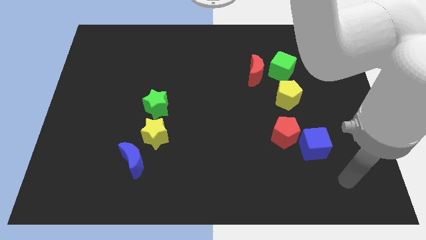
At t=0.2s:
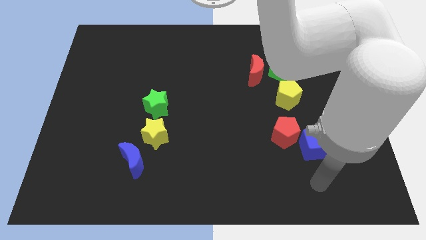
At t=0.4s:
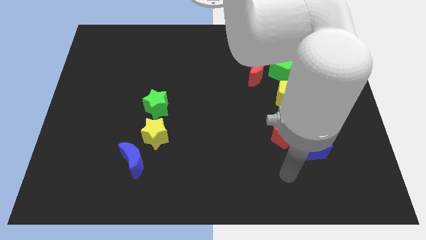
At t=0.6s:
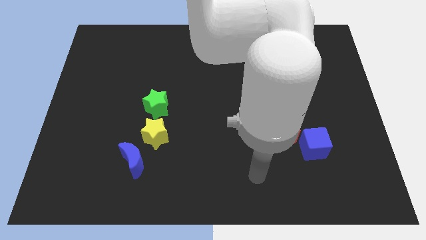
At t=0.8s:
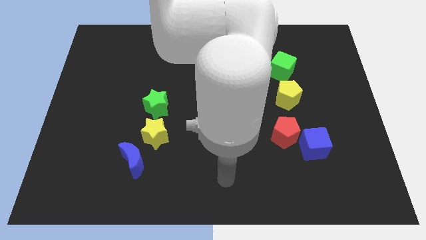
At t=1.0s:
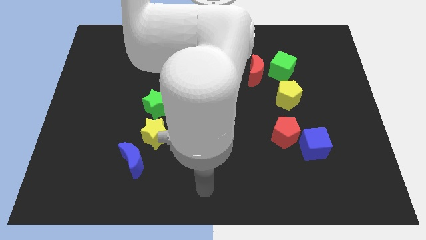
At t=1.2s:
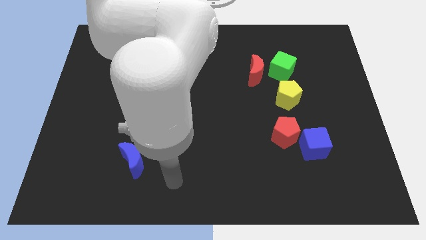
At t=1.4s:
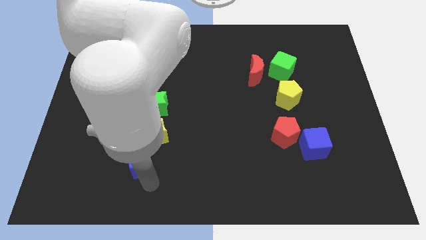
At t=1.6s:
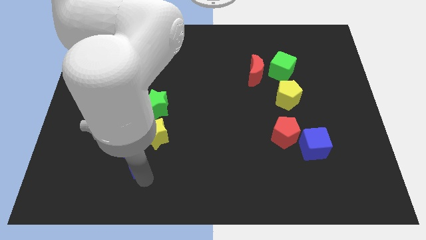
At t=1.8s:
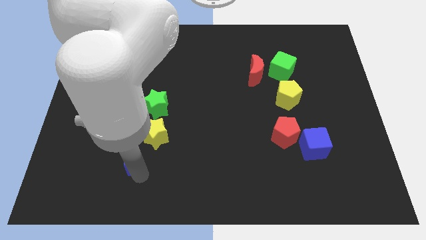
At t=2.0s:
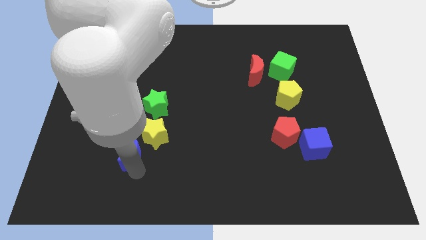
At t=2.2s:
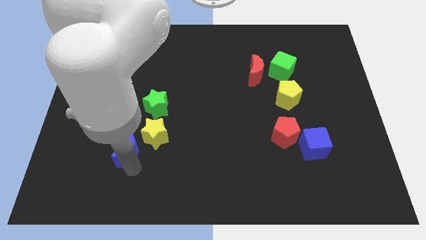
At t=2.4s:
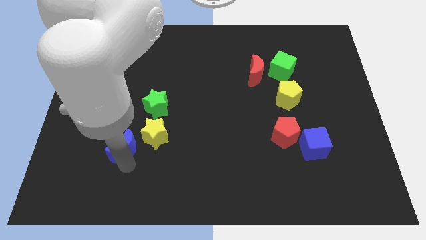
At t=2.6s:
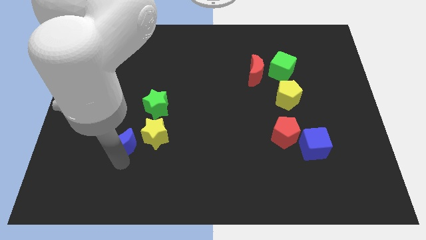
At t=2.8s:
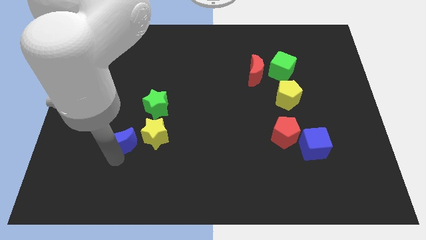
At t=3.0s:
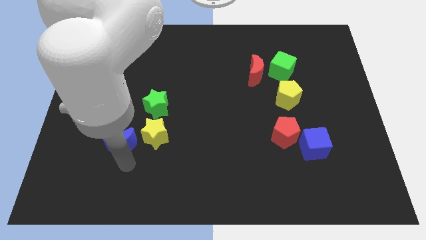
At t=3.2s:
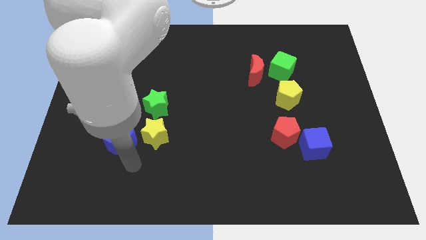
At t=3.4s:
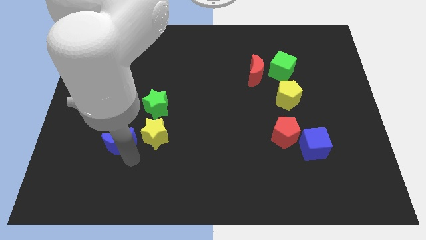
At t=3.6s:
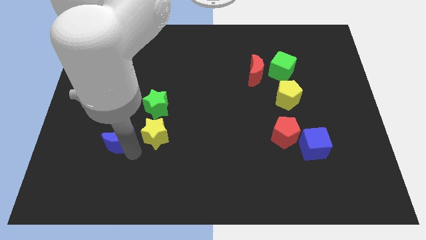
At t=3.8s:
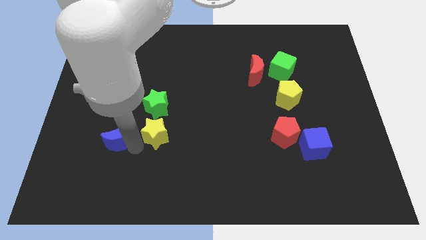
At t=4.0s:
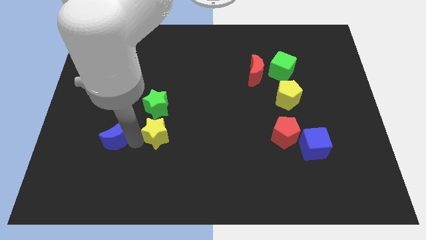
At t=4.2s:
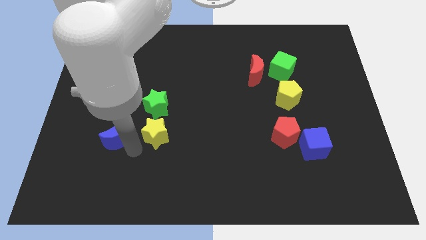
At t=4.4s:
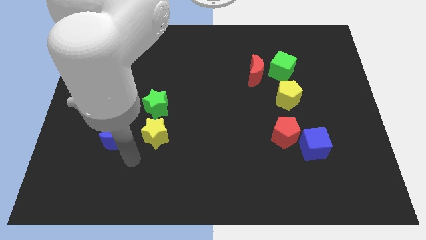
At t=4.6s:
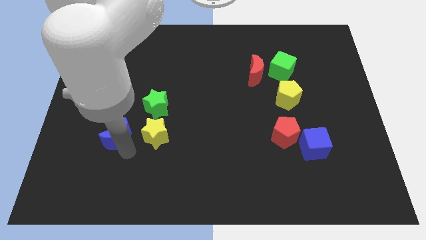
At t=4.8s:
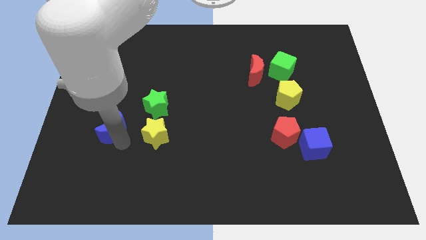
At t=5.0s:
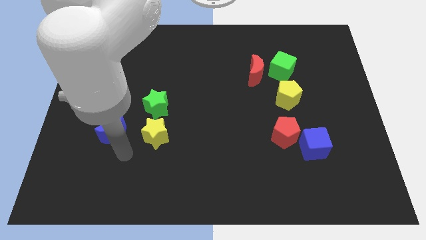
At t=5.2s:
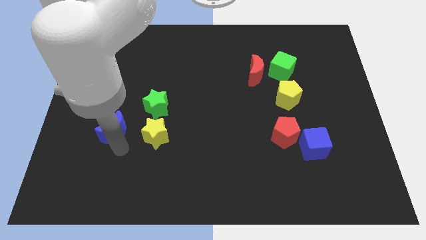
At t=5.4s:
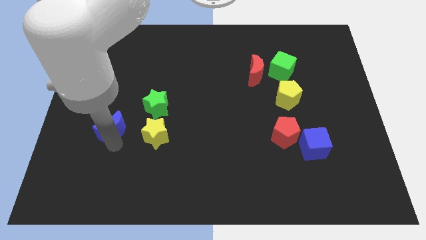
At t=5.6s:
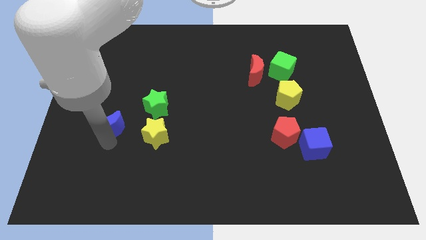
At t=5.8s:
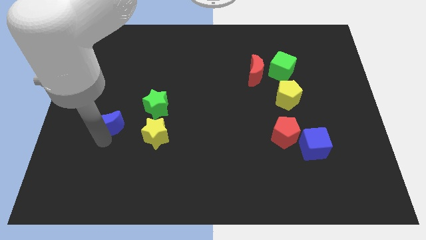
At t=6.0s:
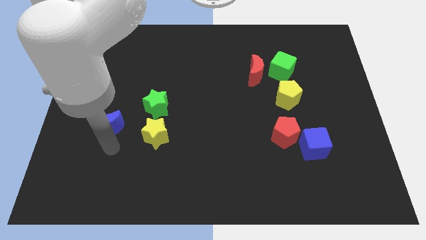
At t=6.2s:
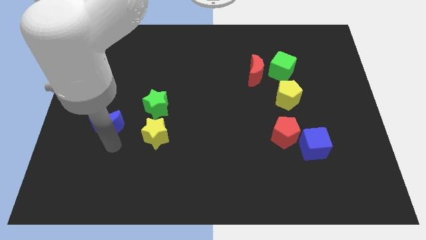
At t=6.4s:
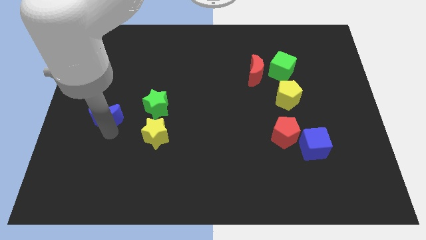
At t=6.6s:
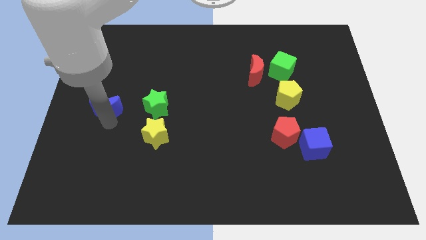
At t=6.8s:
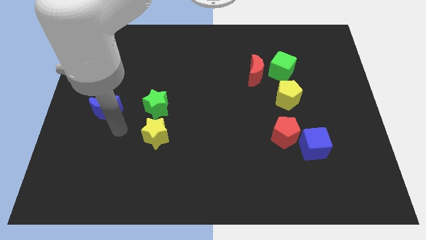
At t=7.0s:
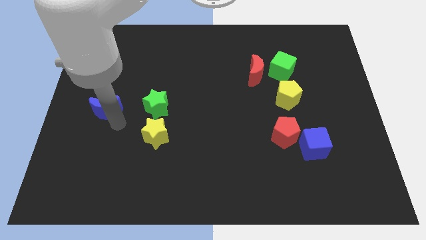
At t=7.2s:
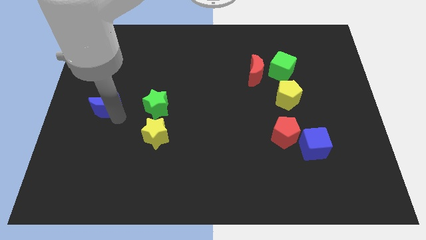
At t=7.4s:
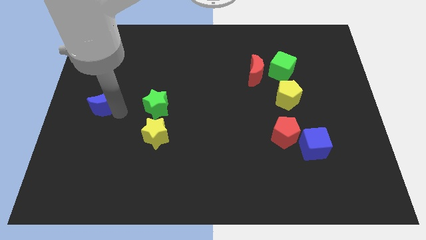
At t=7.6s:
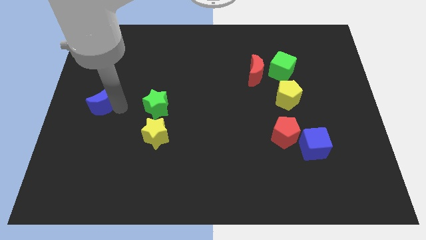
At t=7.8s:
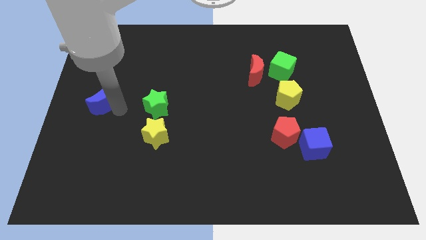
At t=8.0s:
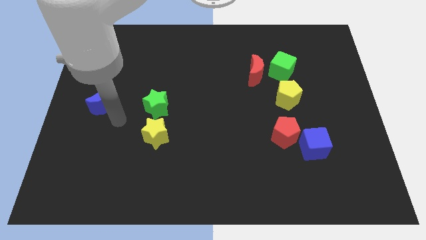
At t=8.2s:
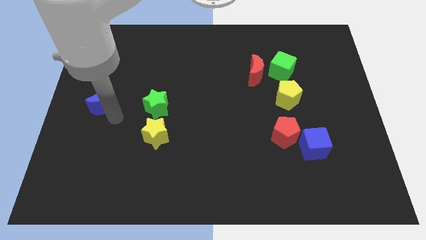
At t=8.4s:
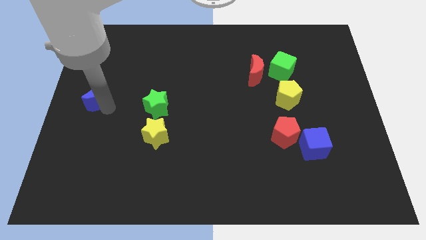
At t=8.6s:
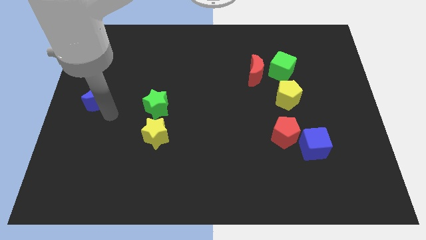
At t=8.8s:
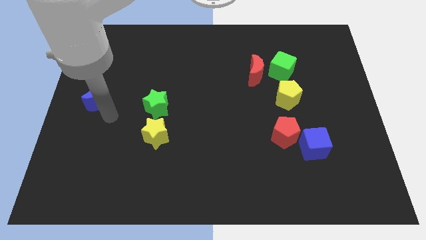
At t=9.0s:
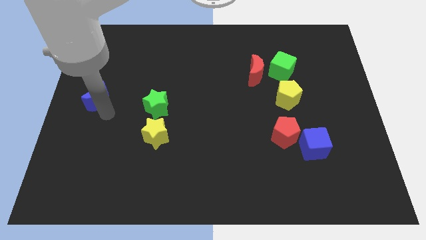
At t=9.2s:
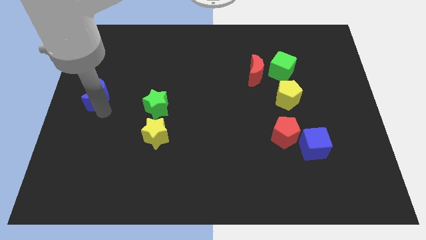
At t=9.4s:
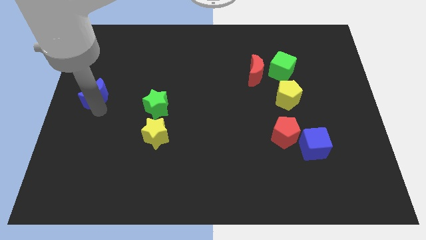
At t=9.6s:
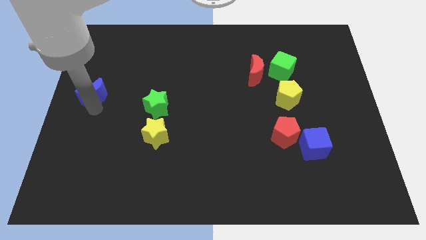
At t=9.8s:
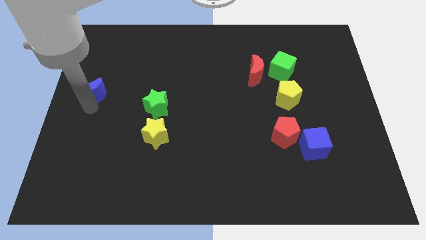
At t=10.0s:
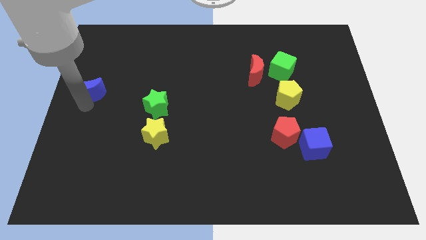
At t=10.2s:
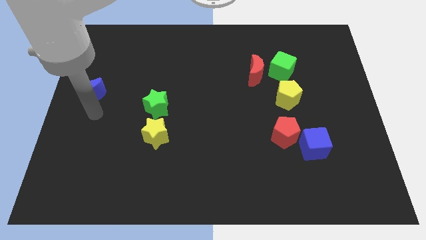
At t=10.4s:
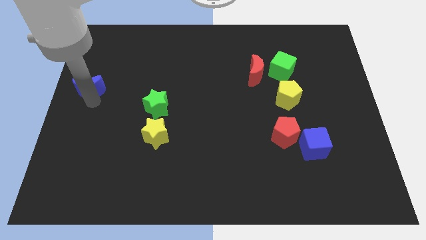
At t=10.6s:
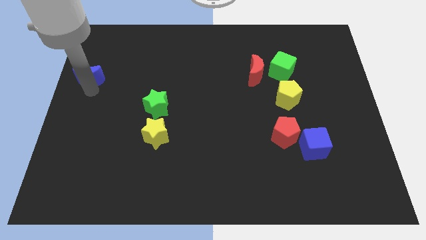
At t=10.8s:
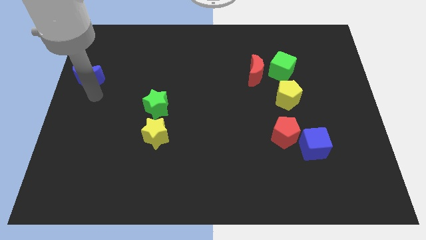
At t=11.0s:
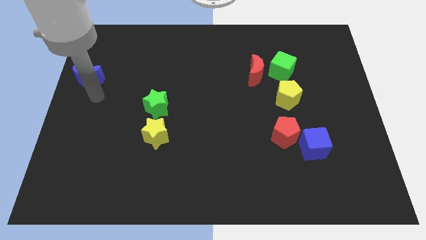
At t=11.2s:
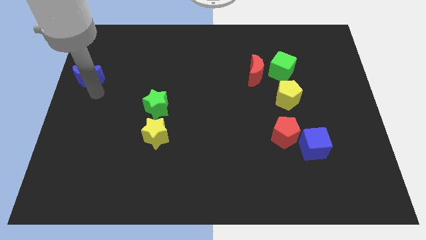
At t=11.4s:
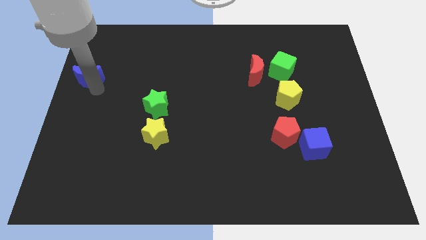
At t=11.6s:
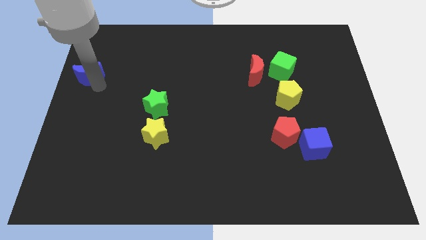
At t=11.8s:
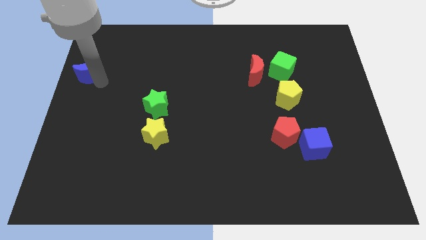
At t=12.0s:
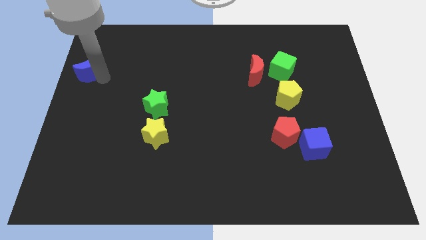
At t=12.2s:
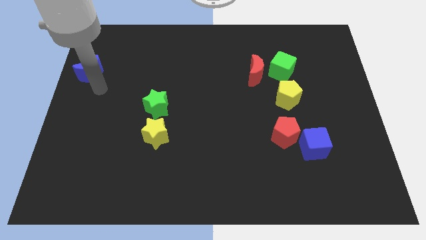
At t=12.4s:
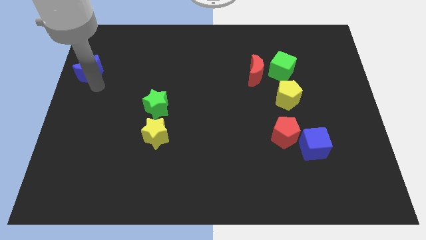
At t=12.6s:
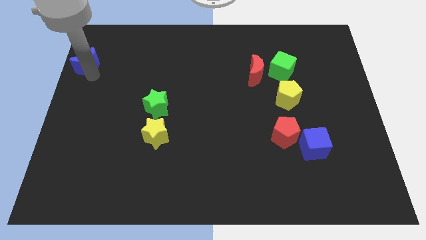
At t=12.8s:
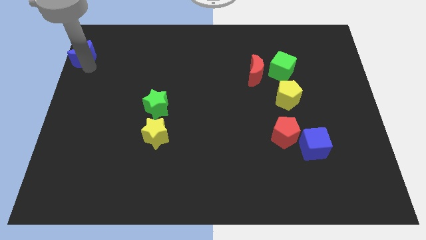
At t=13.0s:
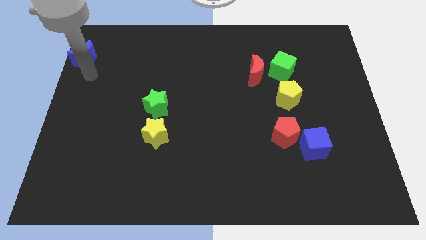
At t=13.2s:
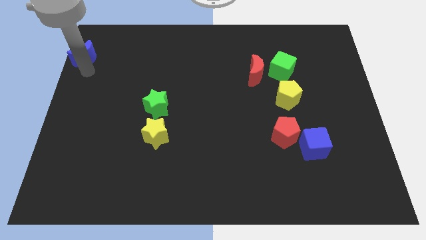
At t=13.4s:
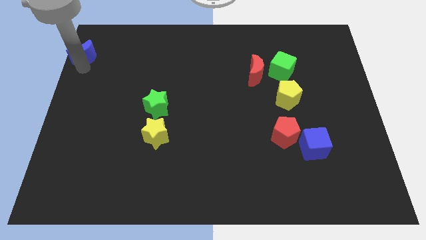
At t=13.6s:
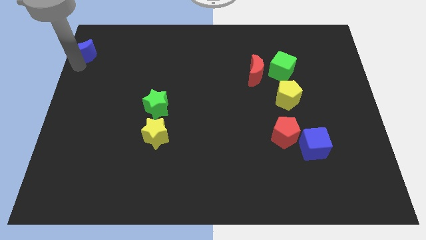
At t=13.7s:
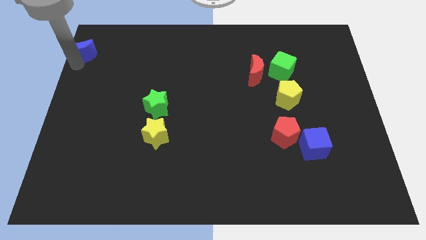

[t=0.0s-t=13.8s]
put the blue moon to the top left
